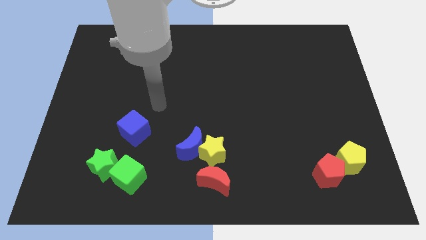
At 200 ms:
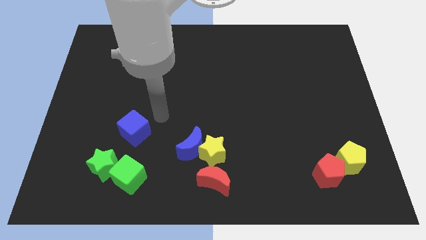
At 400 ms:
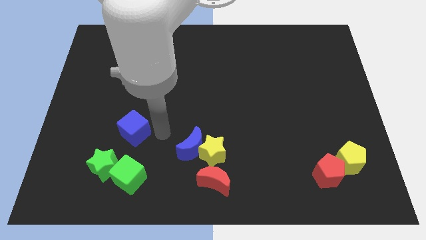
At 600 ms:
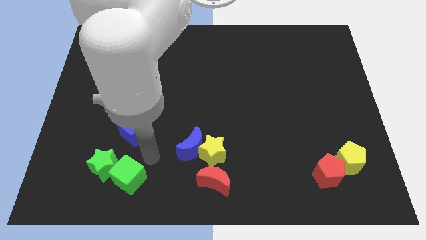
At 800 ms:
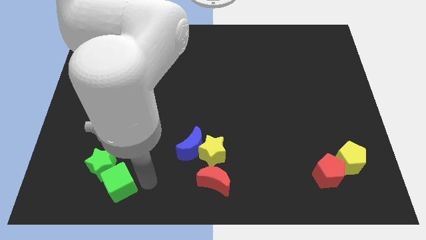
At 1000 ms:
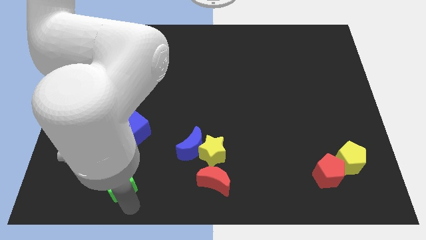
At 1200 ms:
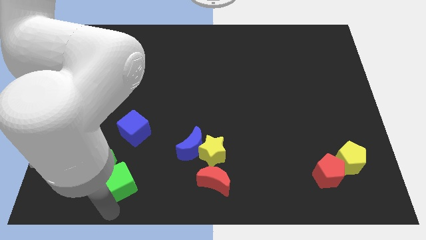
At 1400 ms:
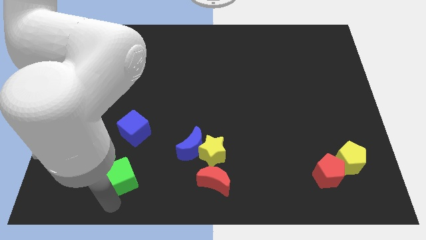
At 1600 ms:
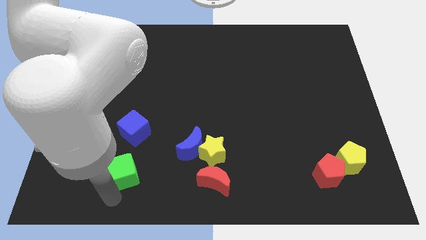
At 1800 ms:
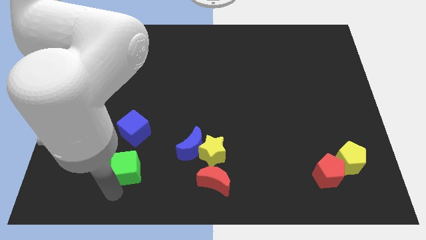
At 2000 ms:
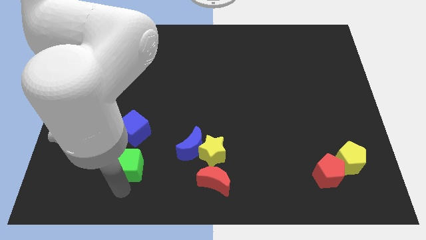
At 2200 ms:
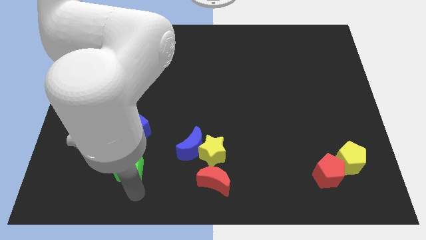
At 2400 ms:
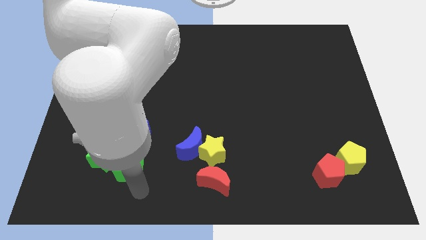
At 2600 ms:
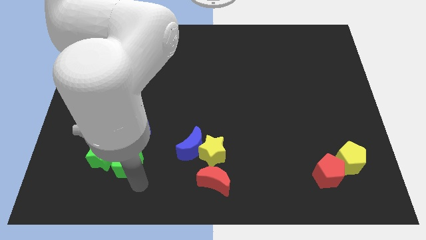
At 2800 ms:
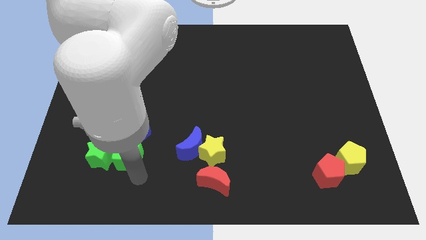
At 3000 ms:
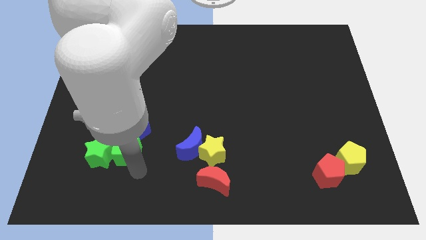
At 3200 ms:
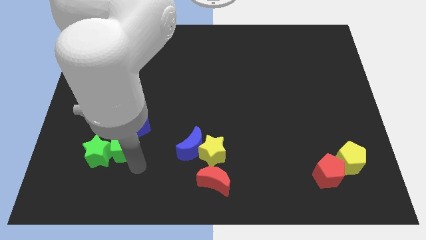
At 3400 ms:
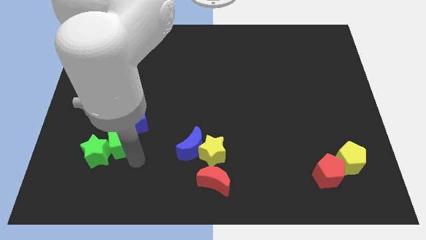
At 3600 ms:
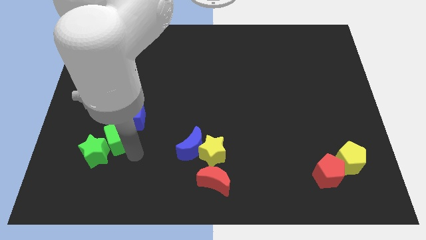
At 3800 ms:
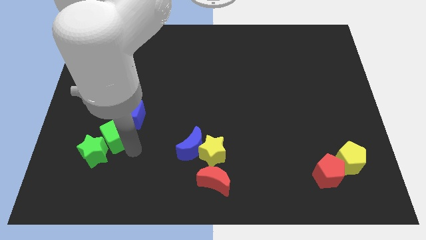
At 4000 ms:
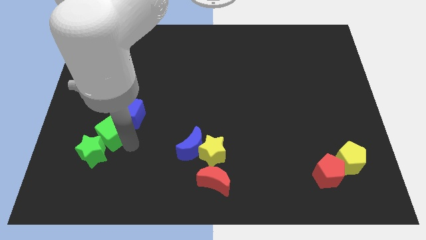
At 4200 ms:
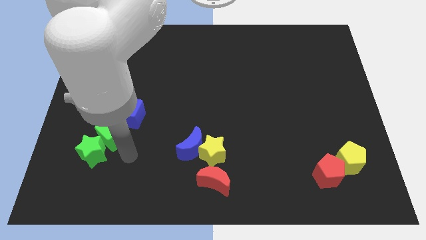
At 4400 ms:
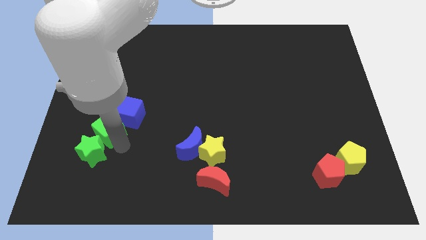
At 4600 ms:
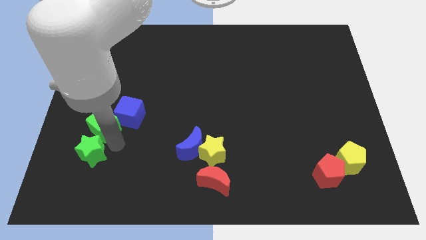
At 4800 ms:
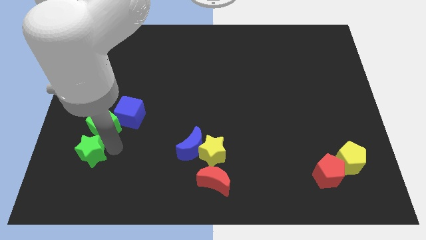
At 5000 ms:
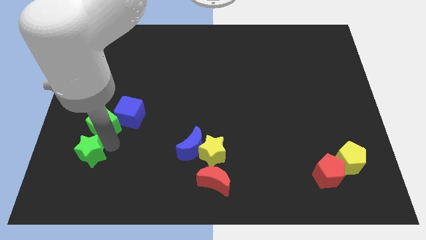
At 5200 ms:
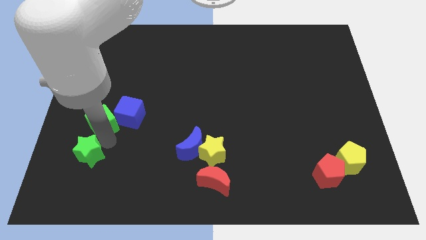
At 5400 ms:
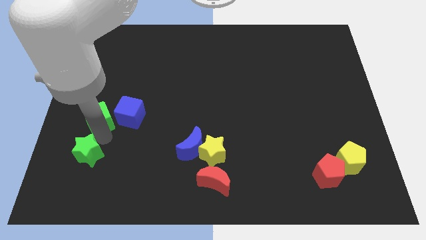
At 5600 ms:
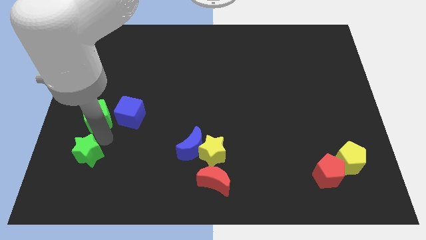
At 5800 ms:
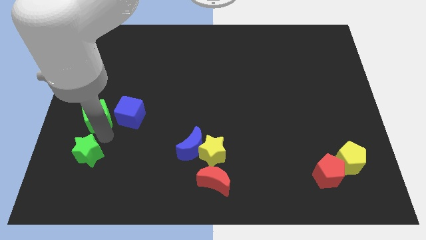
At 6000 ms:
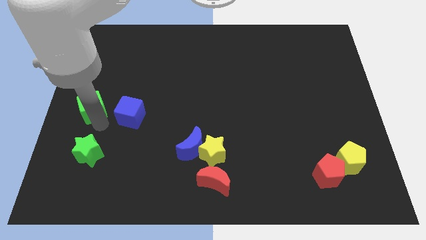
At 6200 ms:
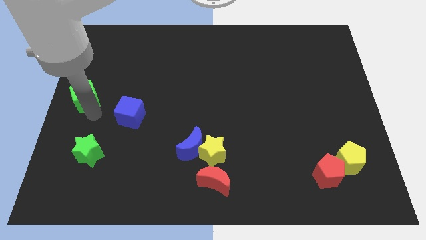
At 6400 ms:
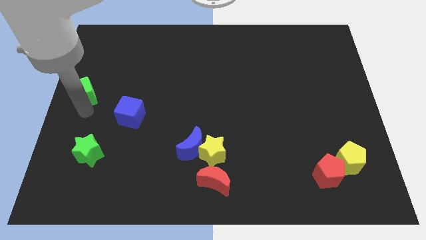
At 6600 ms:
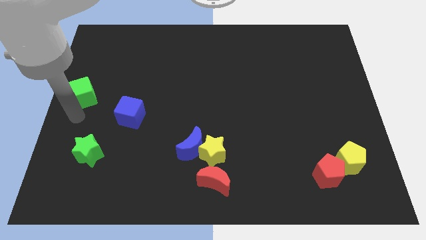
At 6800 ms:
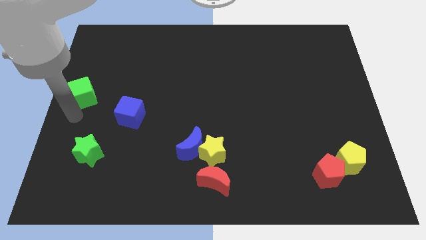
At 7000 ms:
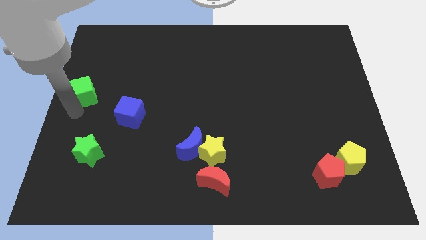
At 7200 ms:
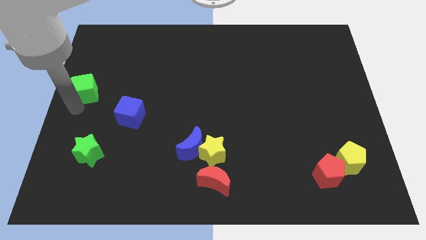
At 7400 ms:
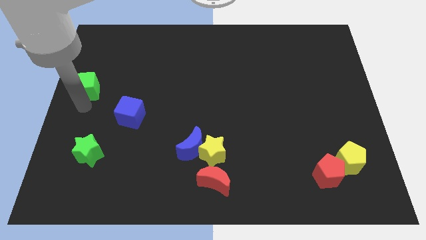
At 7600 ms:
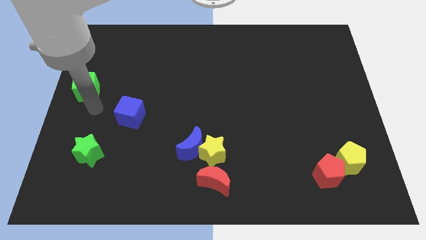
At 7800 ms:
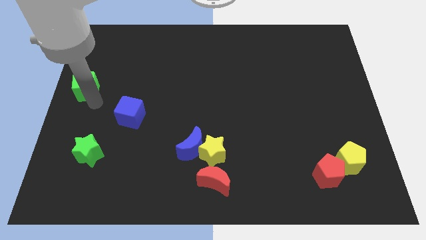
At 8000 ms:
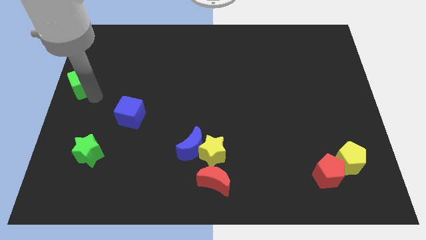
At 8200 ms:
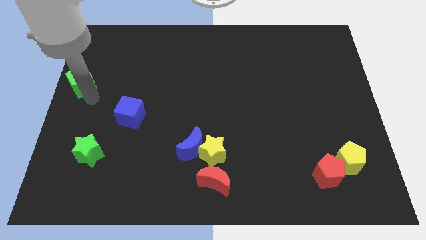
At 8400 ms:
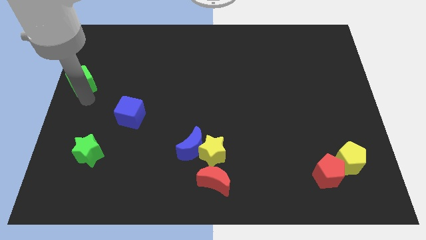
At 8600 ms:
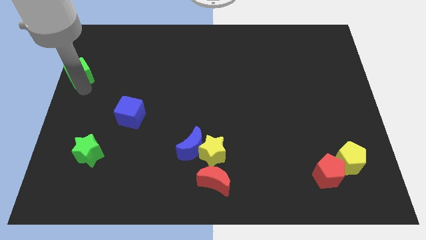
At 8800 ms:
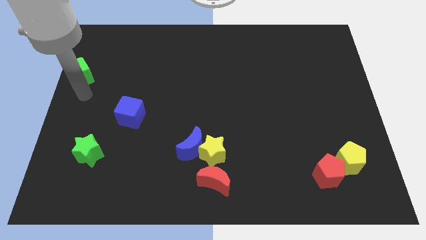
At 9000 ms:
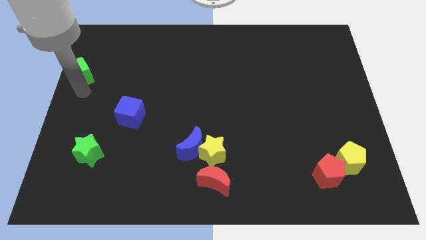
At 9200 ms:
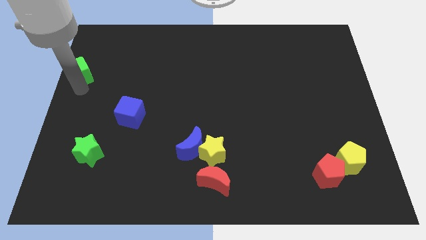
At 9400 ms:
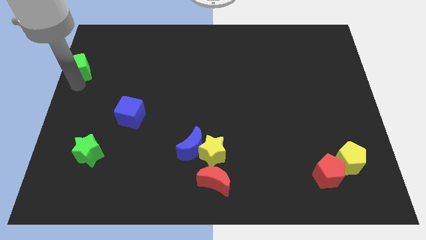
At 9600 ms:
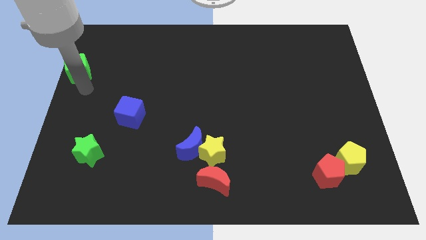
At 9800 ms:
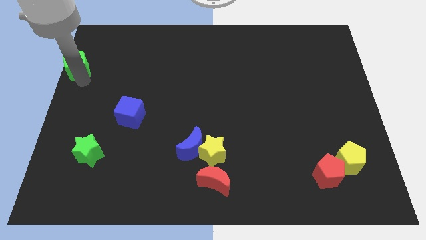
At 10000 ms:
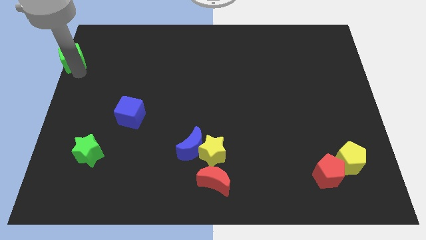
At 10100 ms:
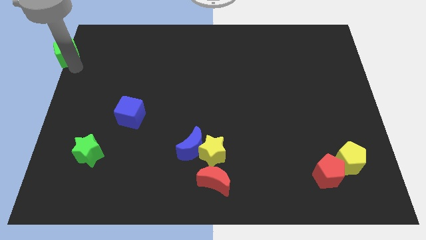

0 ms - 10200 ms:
push the green cube to the top left of the board
